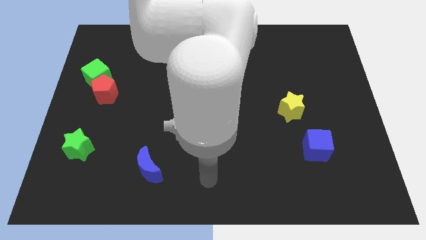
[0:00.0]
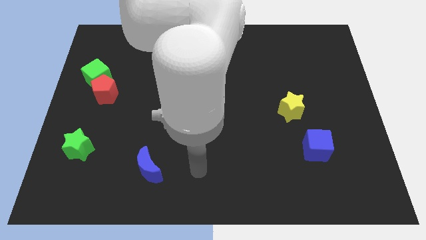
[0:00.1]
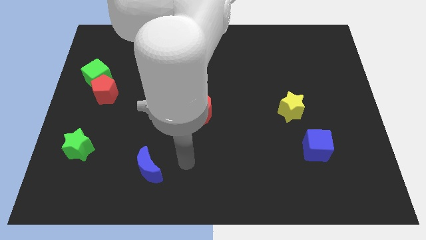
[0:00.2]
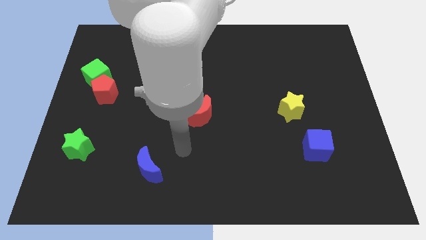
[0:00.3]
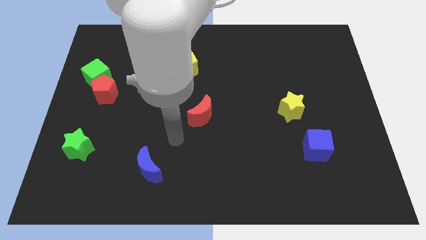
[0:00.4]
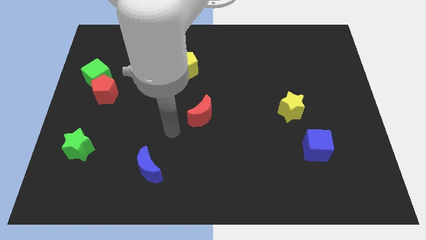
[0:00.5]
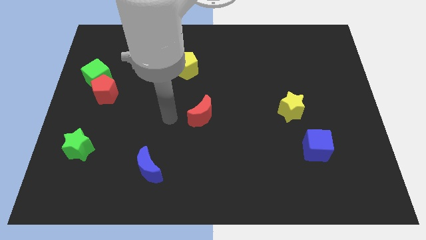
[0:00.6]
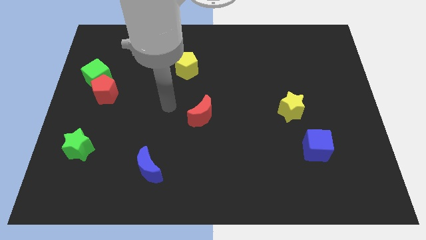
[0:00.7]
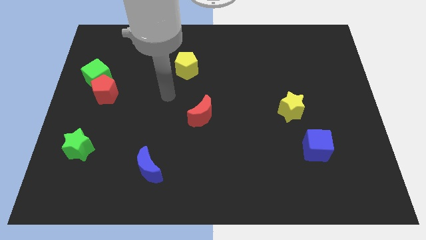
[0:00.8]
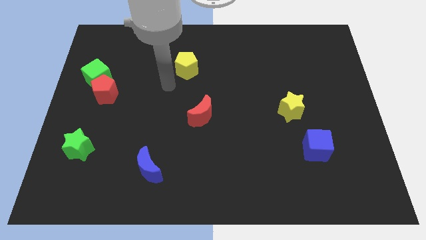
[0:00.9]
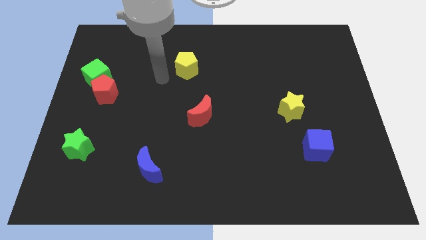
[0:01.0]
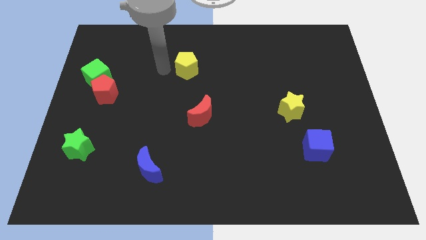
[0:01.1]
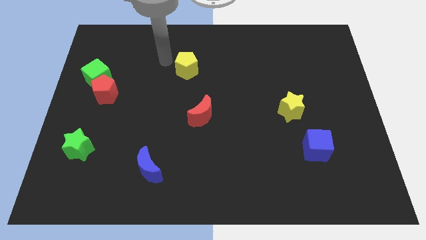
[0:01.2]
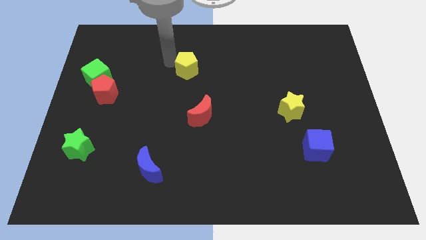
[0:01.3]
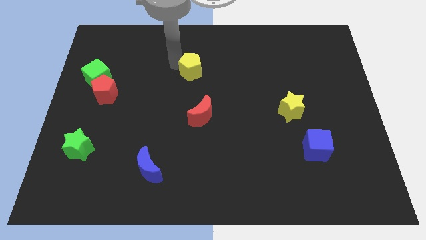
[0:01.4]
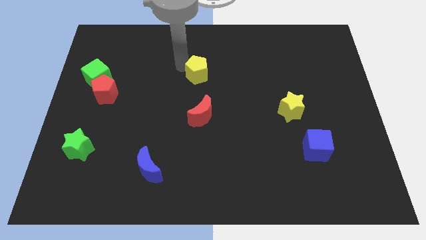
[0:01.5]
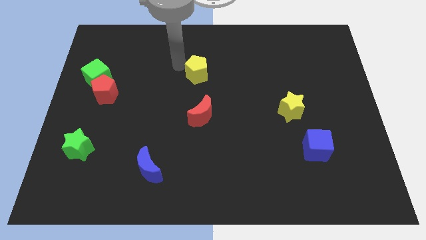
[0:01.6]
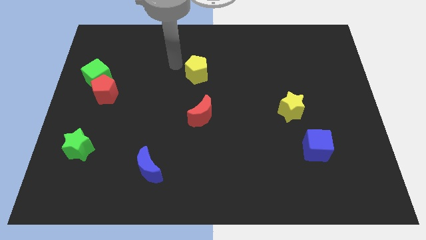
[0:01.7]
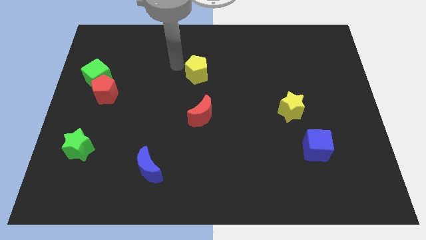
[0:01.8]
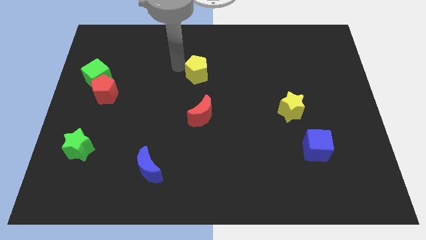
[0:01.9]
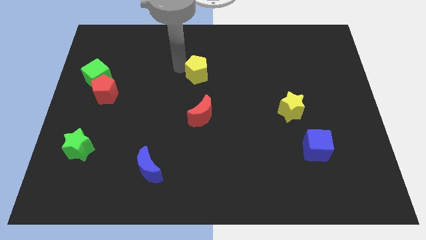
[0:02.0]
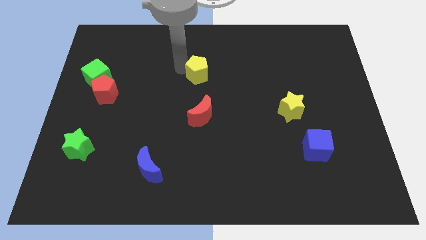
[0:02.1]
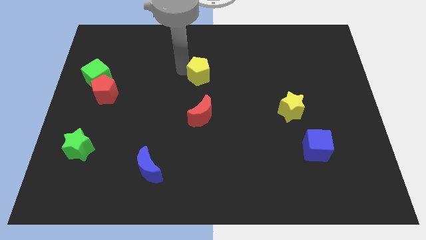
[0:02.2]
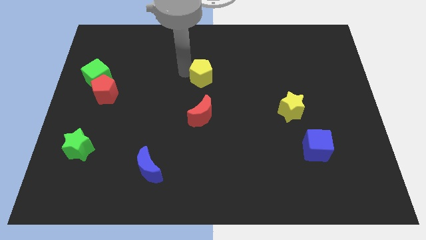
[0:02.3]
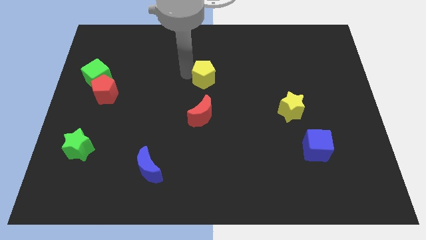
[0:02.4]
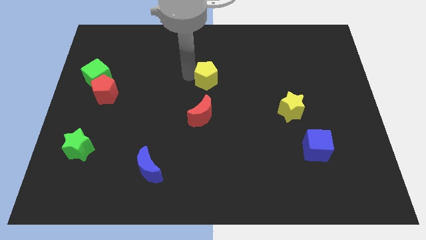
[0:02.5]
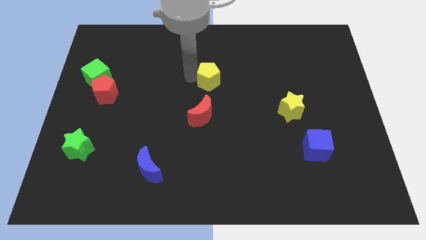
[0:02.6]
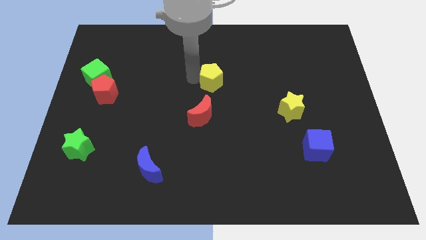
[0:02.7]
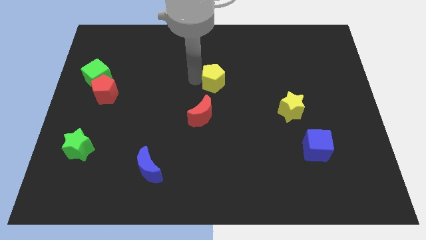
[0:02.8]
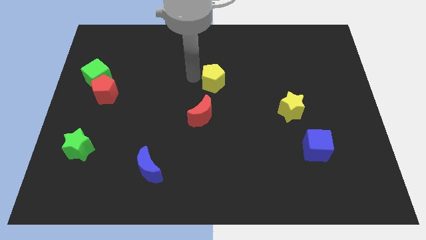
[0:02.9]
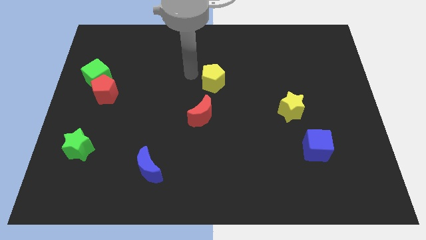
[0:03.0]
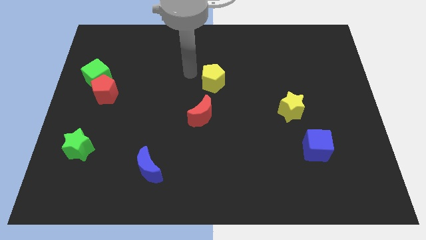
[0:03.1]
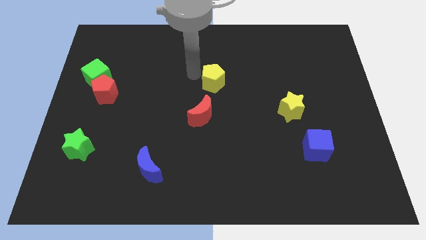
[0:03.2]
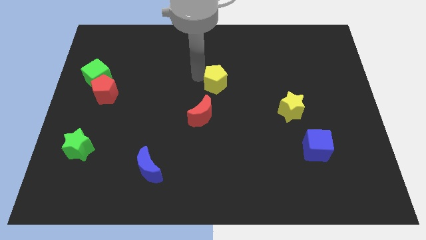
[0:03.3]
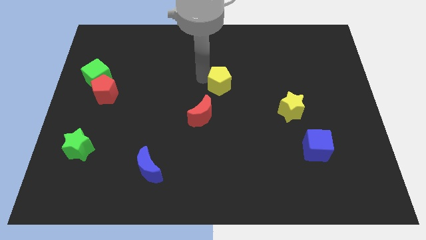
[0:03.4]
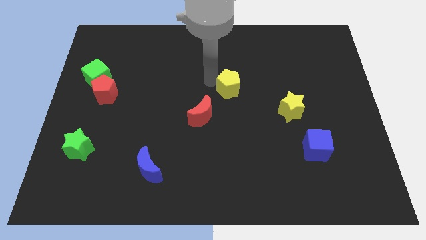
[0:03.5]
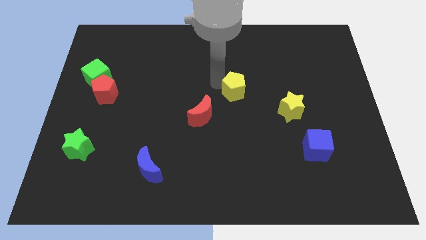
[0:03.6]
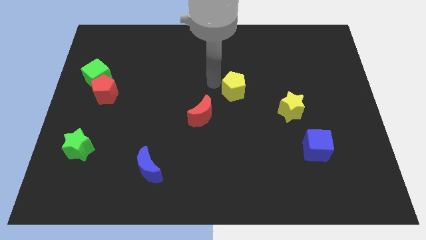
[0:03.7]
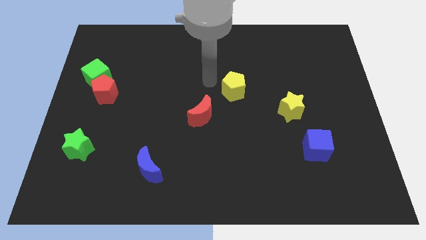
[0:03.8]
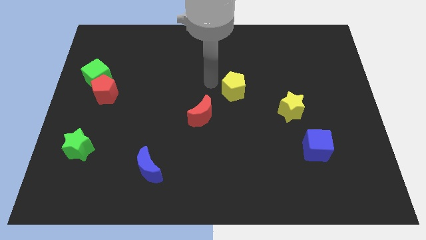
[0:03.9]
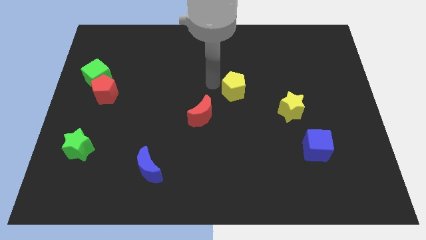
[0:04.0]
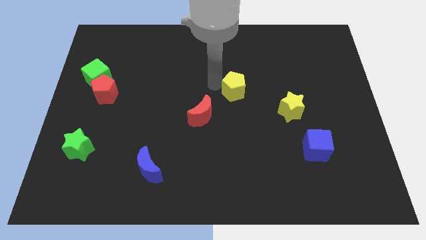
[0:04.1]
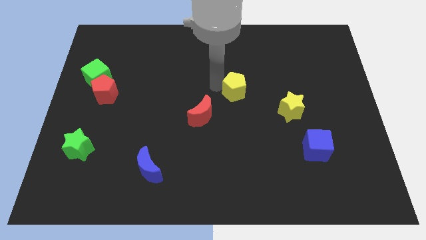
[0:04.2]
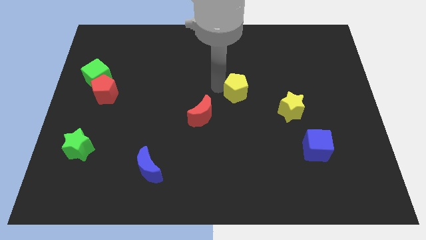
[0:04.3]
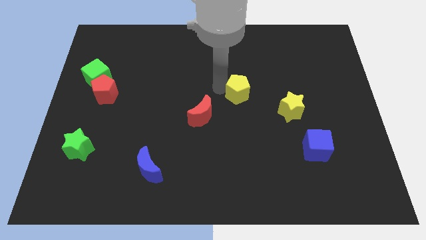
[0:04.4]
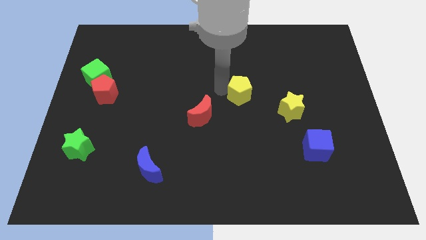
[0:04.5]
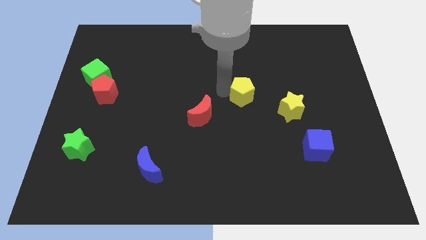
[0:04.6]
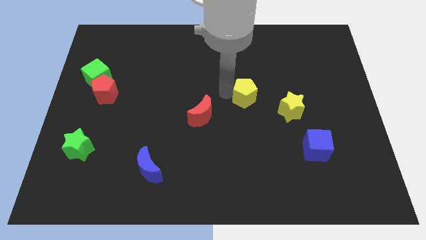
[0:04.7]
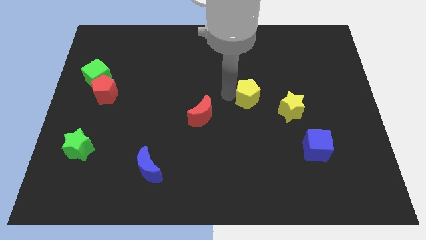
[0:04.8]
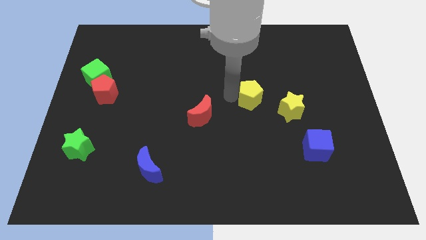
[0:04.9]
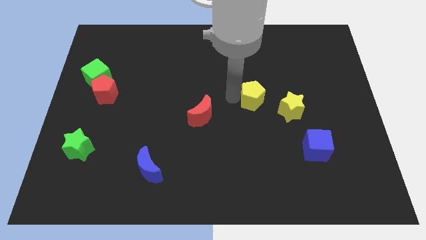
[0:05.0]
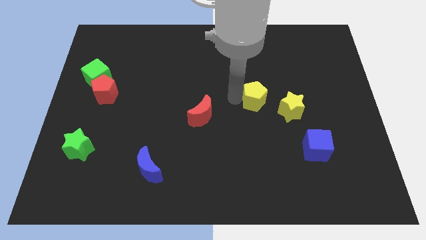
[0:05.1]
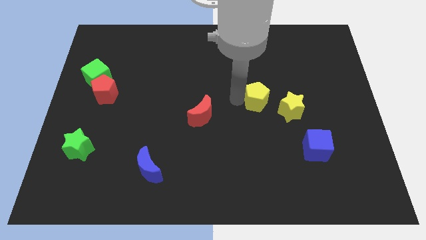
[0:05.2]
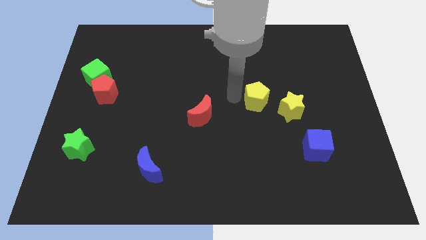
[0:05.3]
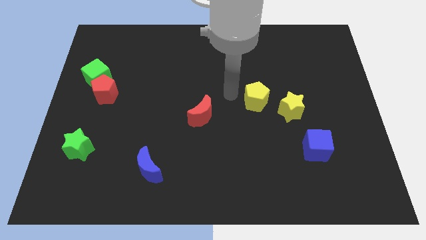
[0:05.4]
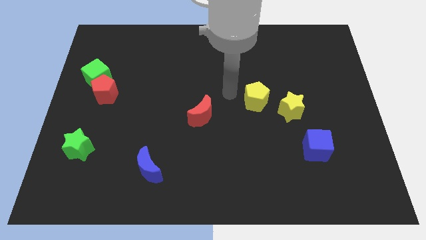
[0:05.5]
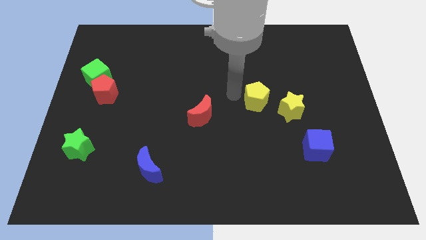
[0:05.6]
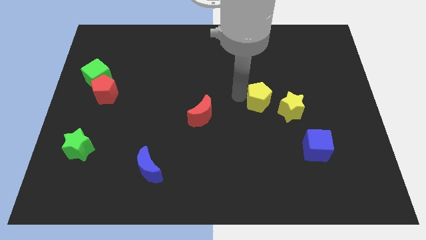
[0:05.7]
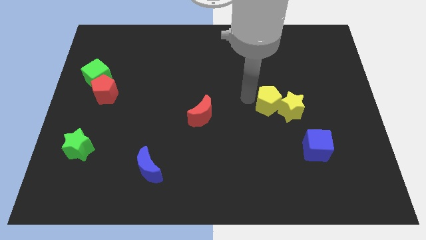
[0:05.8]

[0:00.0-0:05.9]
put the yellow pentagon next to the yellow star
